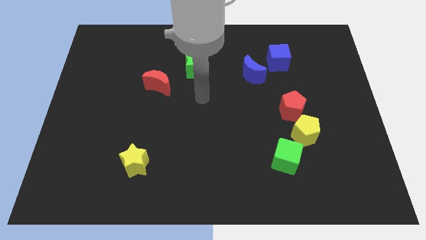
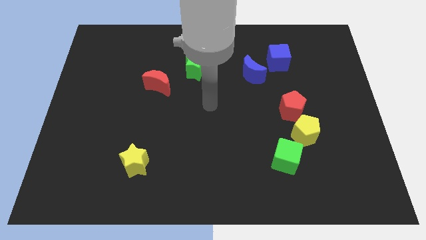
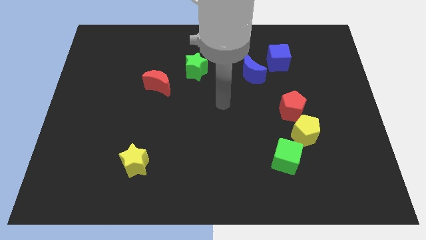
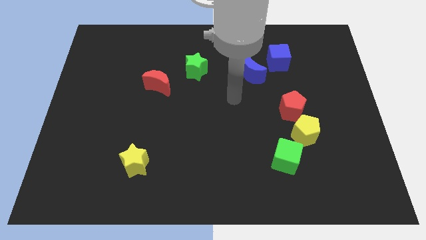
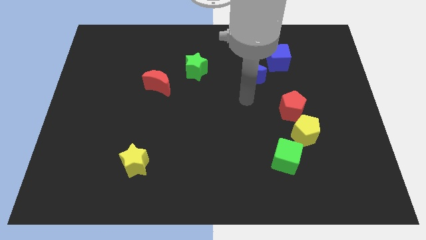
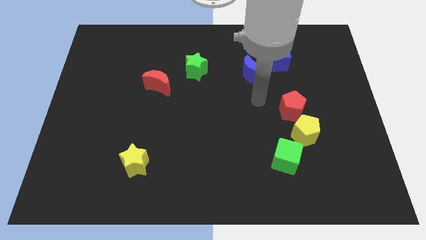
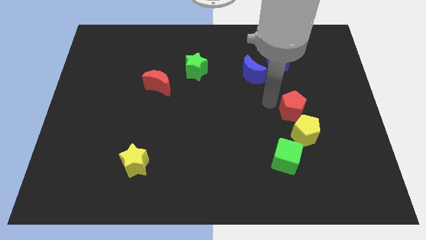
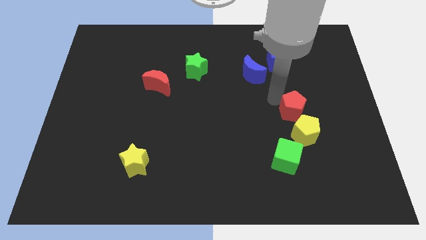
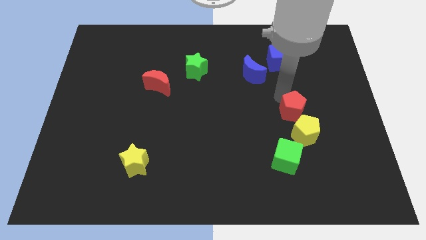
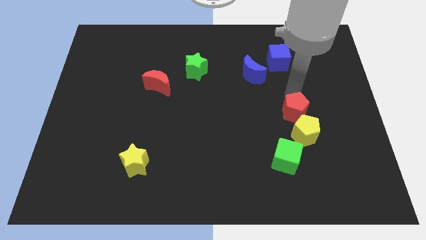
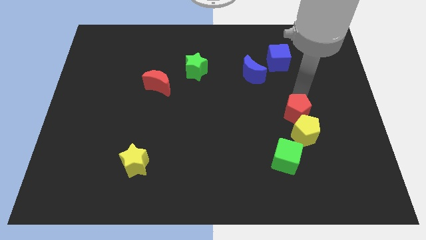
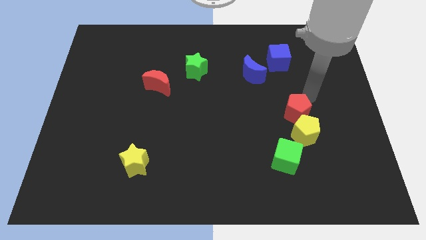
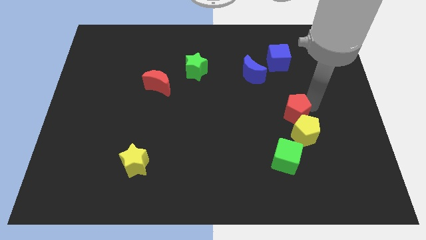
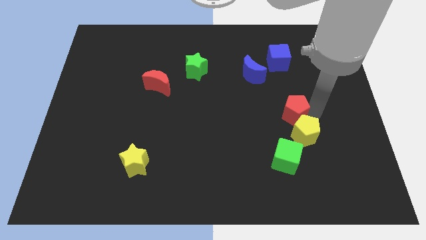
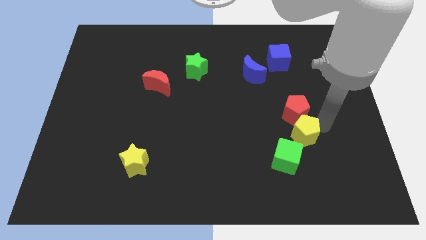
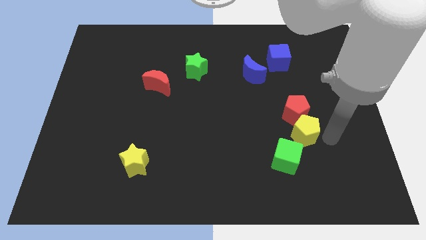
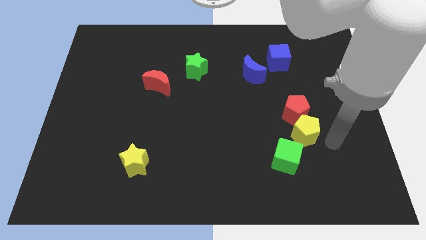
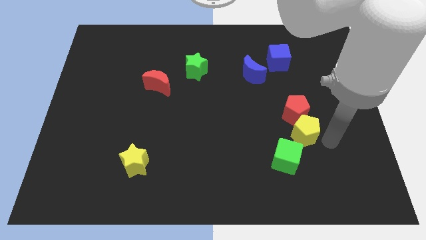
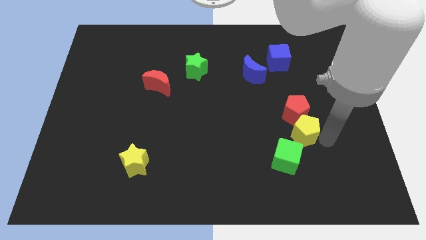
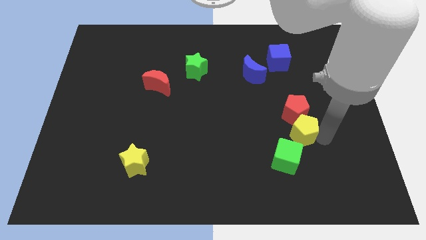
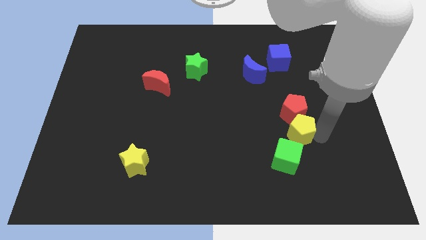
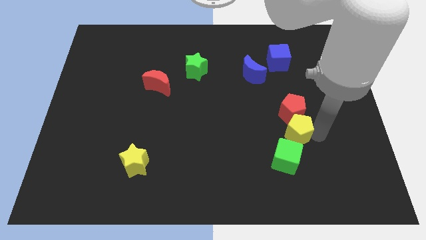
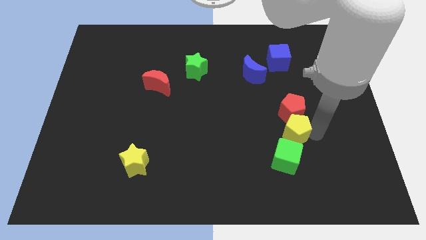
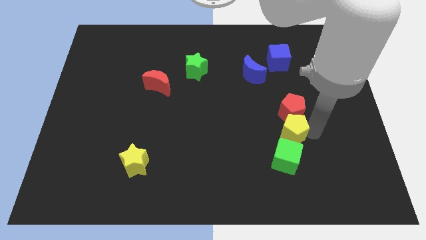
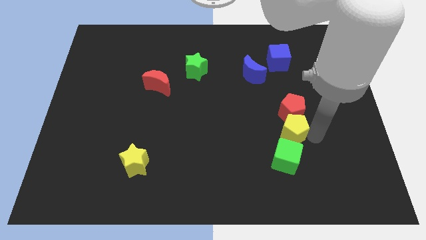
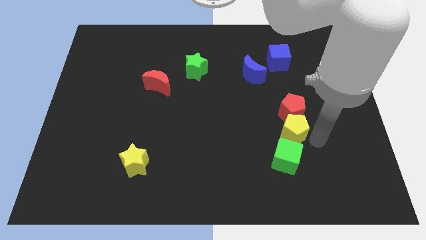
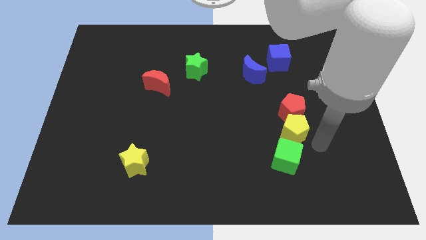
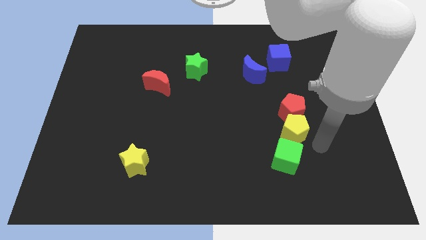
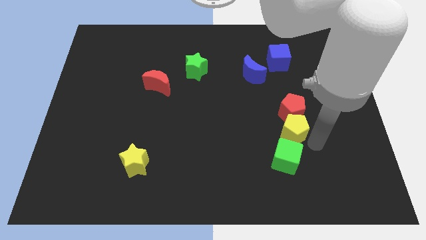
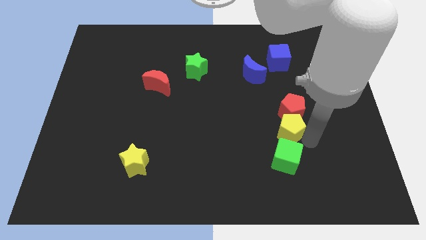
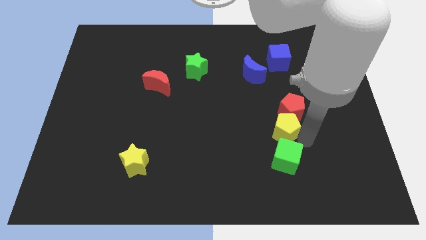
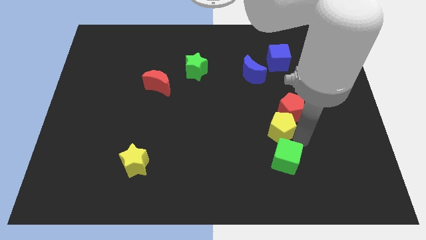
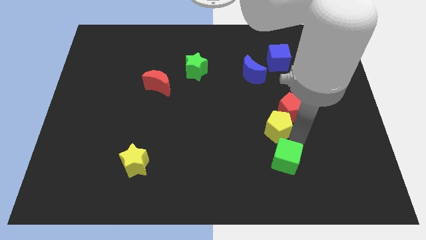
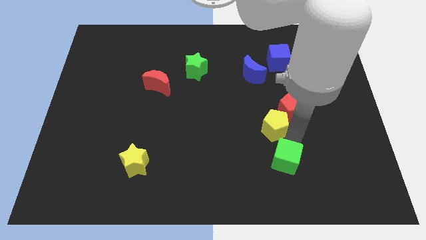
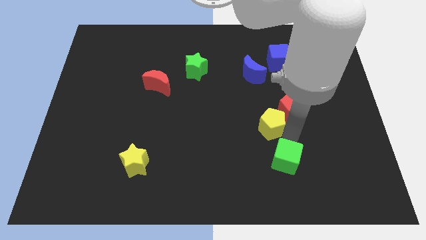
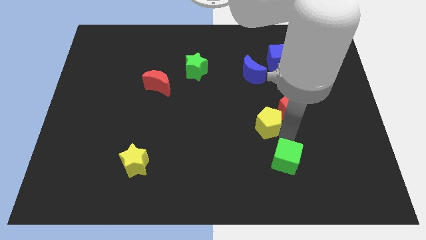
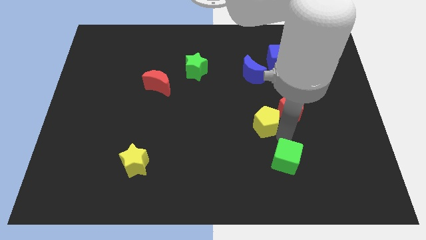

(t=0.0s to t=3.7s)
slide the yellow pentagon a little bit diagonally up and left

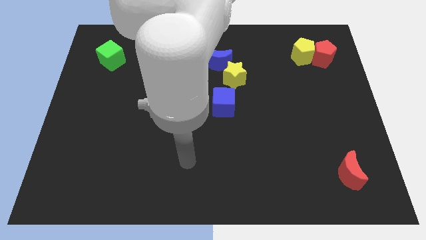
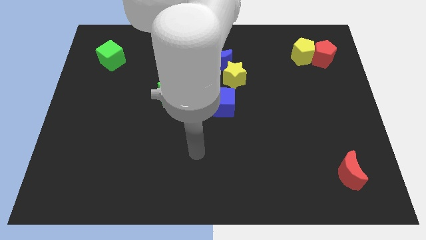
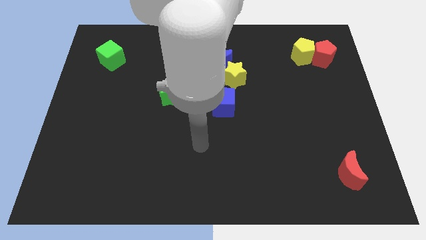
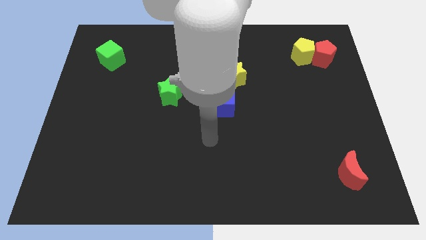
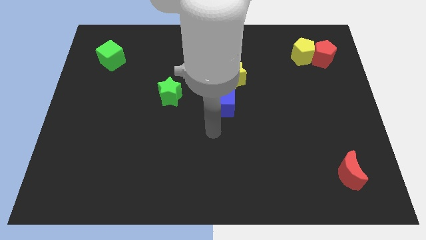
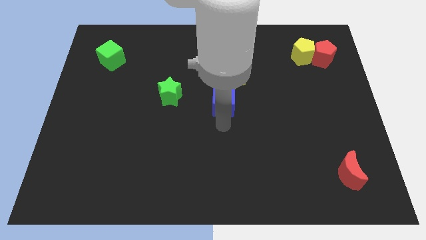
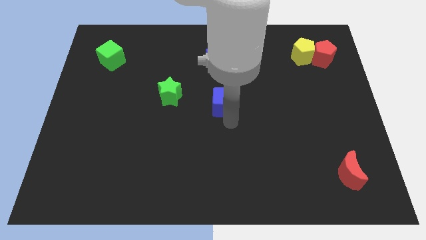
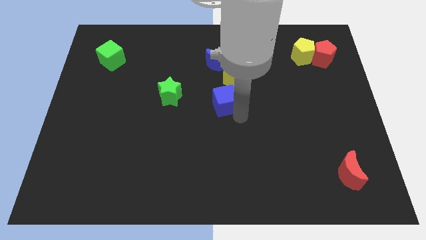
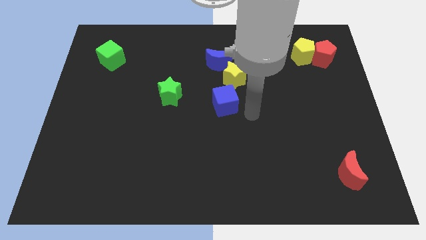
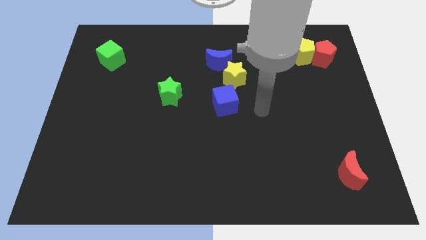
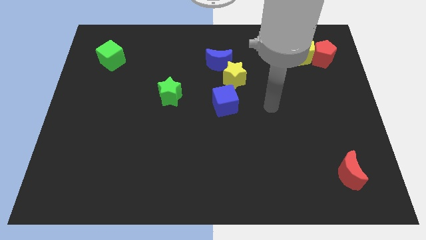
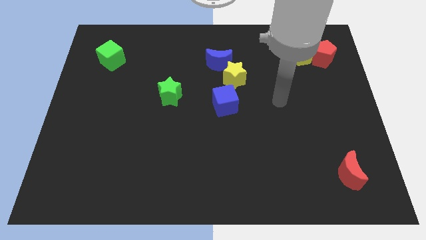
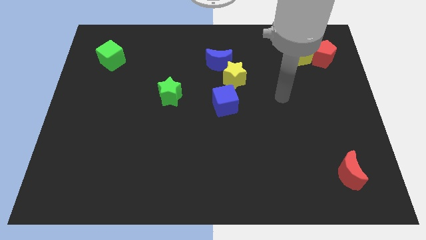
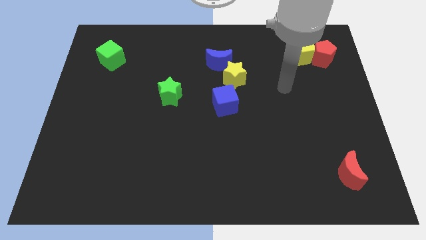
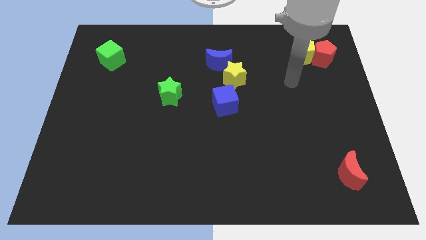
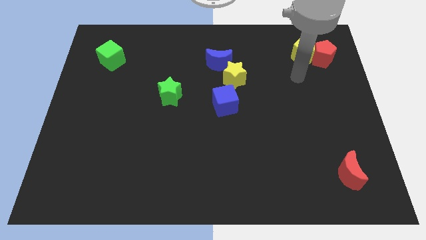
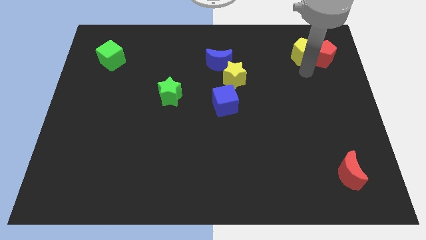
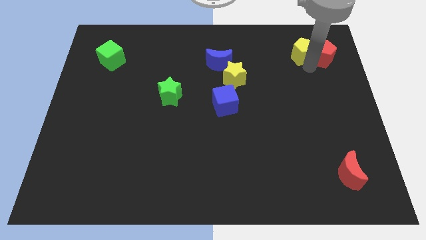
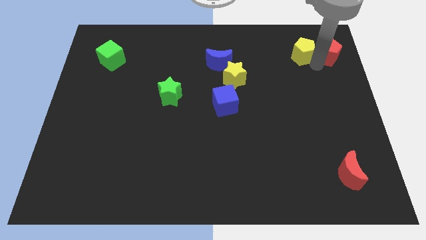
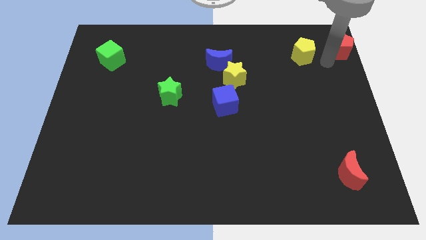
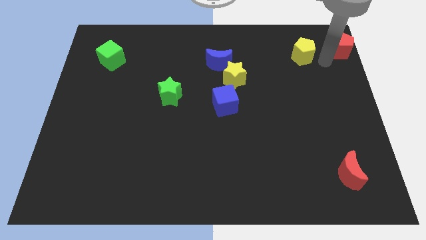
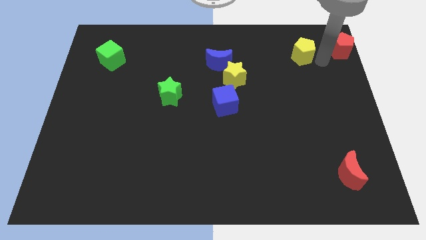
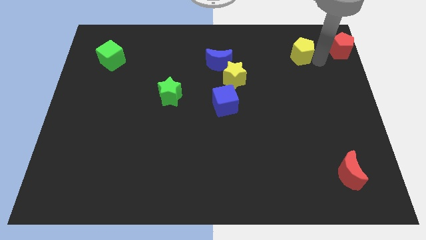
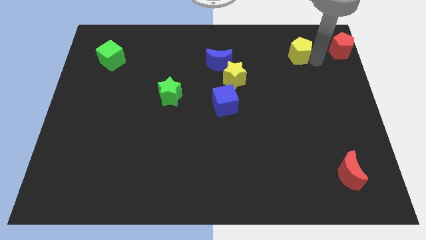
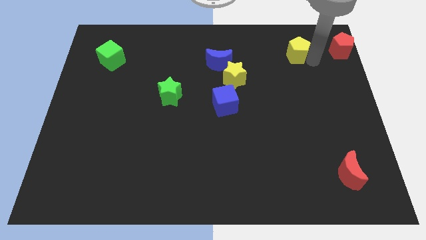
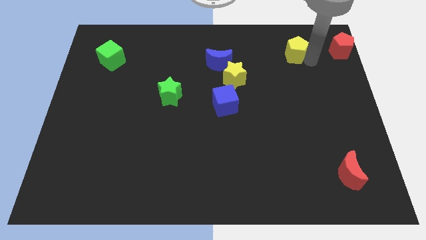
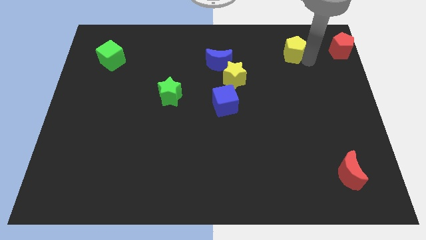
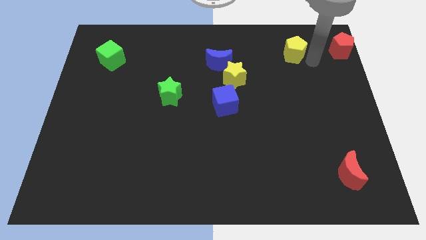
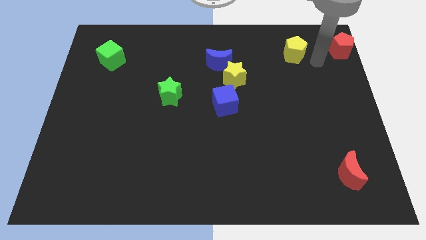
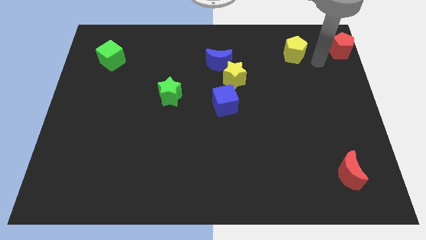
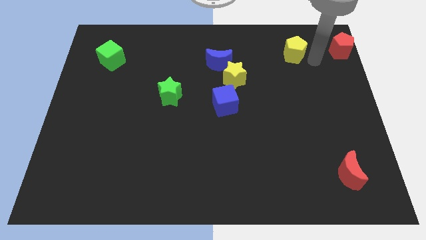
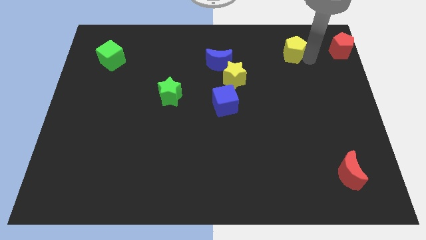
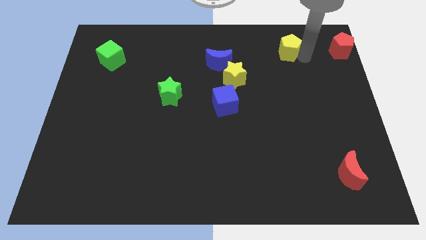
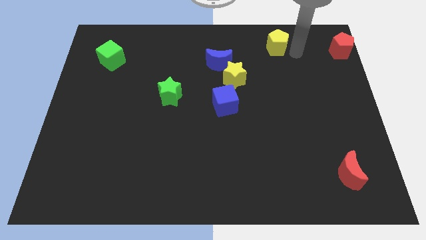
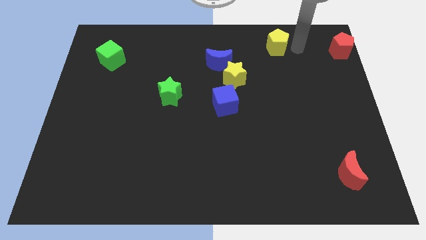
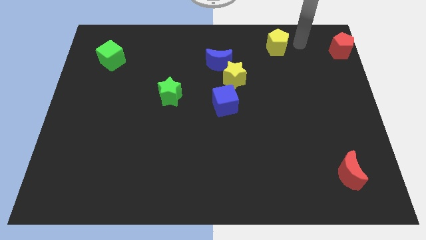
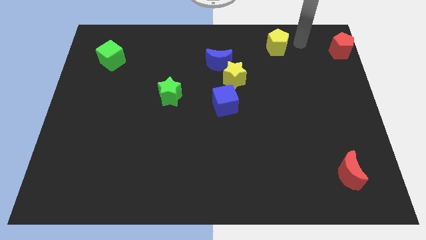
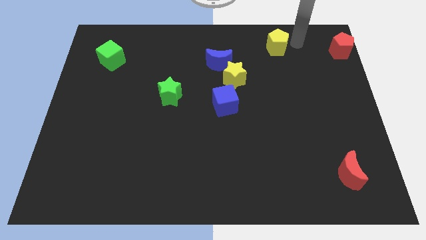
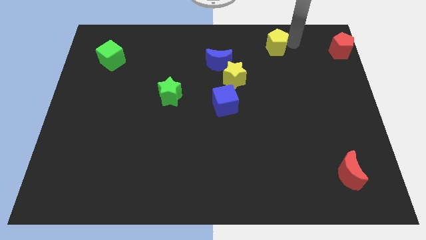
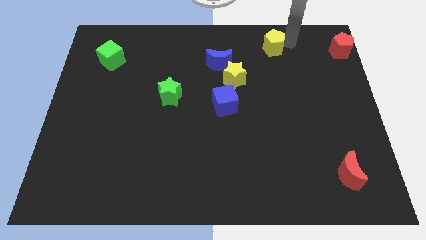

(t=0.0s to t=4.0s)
slightly move the yellow pentagon to the left

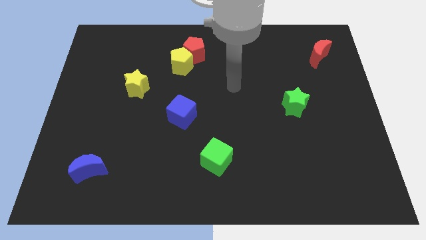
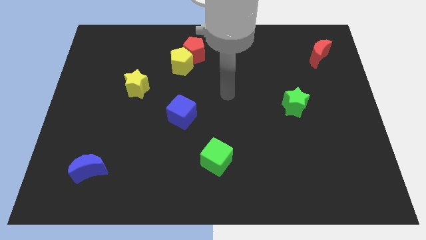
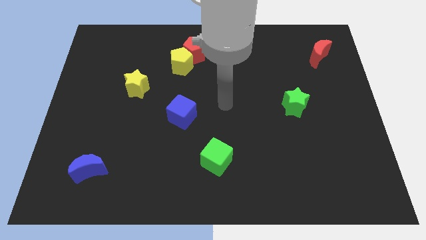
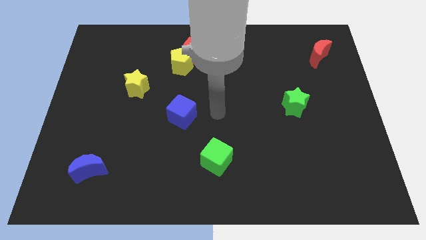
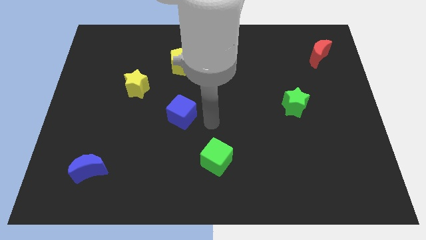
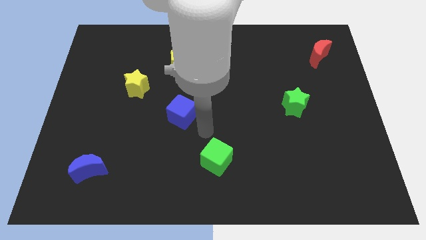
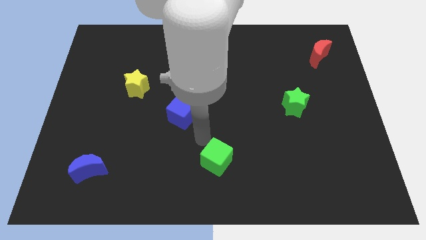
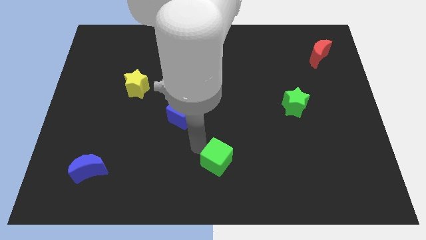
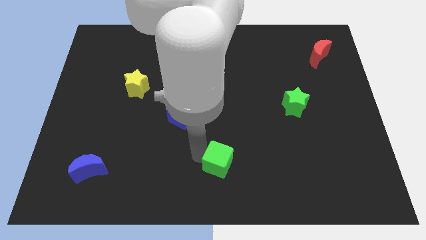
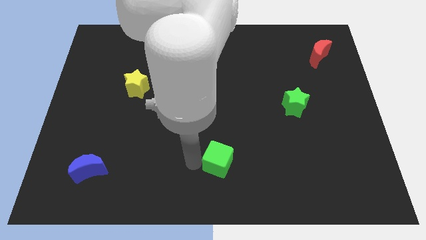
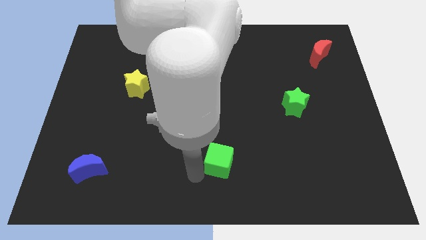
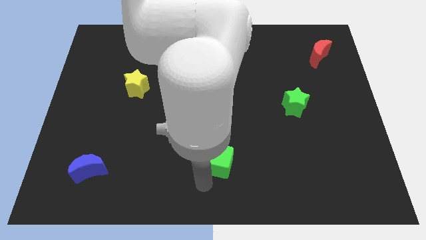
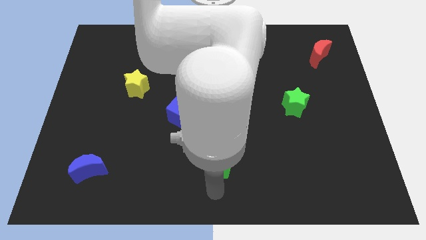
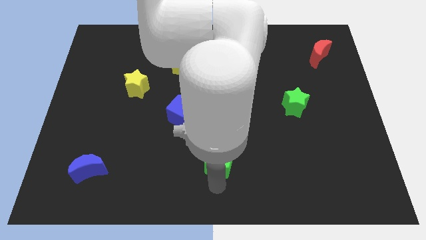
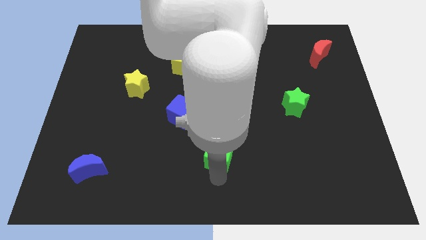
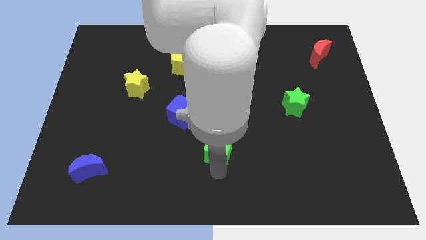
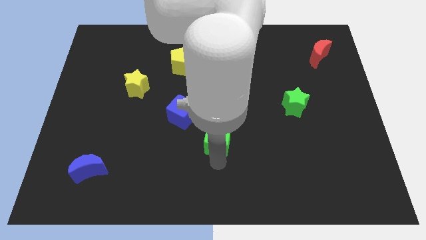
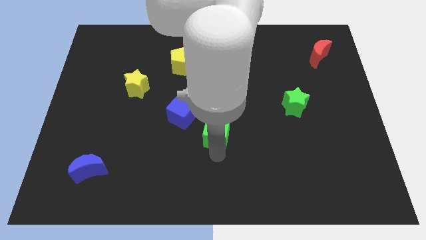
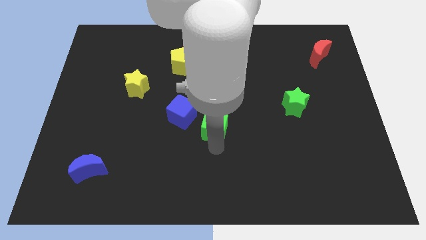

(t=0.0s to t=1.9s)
slightly slide the green cube up
